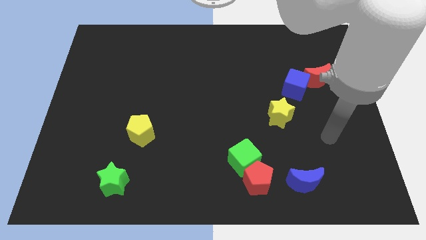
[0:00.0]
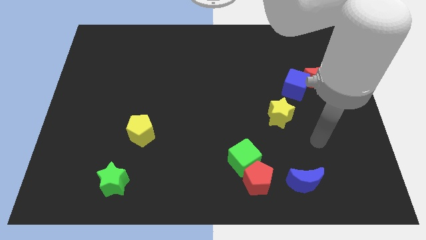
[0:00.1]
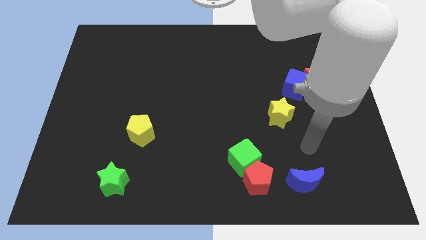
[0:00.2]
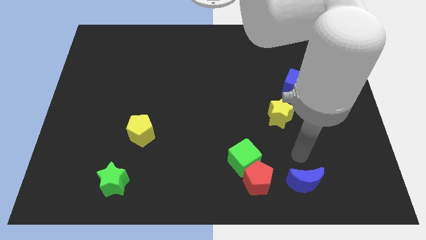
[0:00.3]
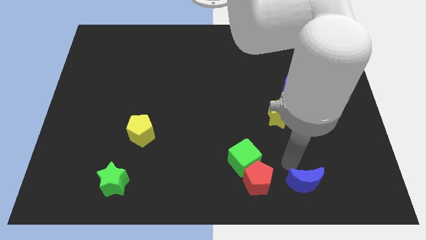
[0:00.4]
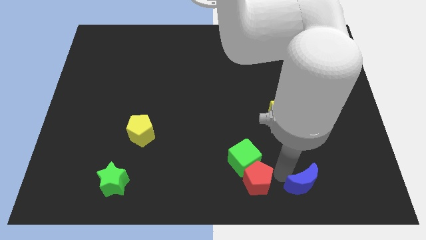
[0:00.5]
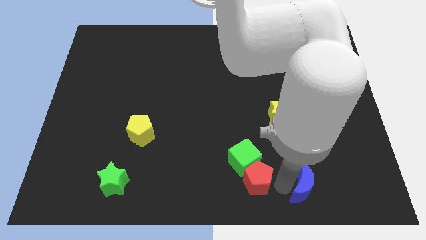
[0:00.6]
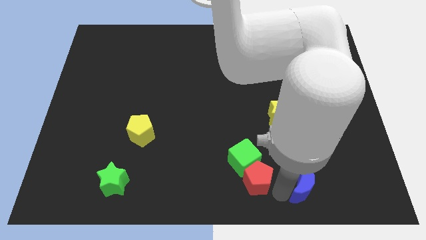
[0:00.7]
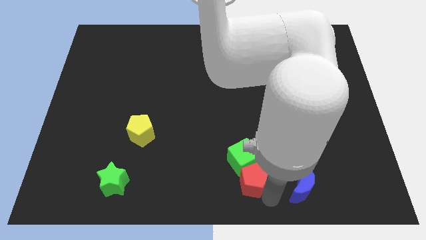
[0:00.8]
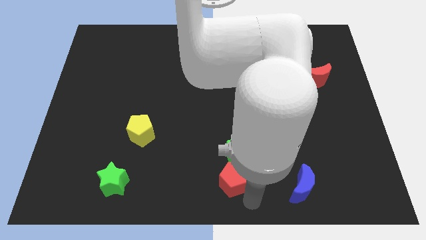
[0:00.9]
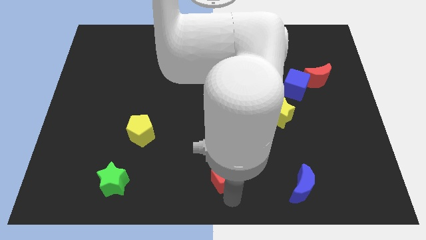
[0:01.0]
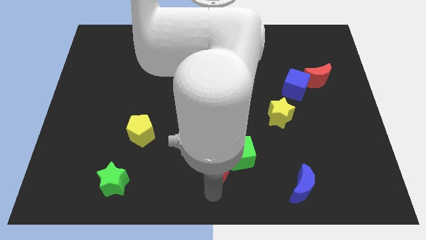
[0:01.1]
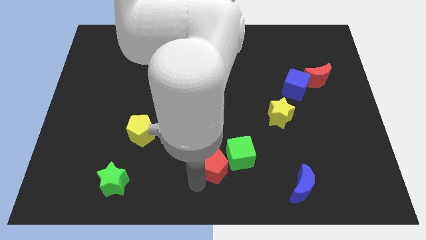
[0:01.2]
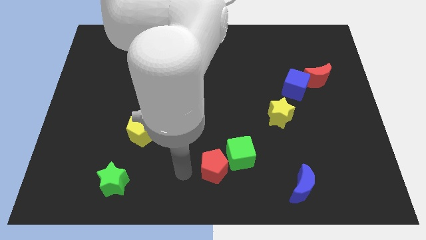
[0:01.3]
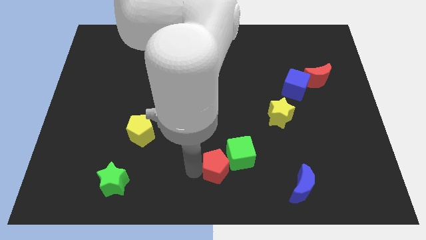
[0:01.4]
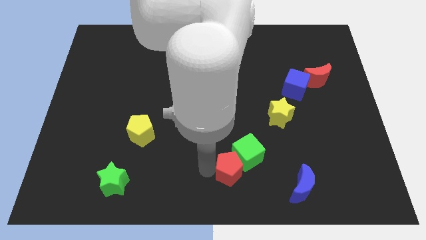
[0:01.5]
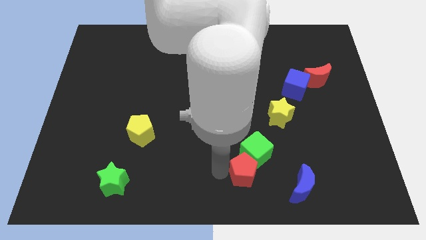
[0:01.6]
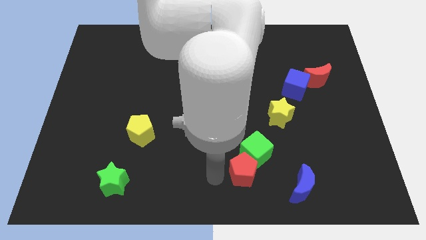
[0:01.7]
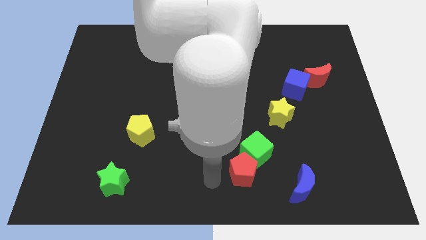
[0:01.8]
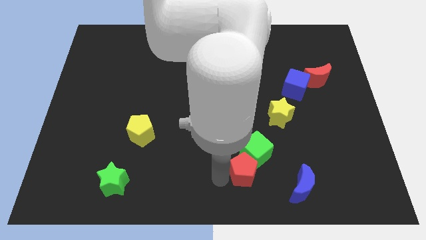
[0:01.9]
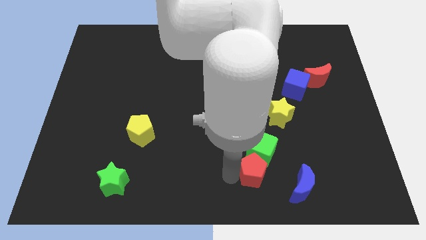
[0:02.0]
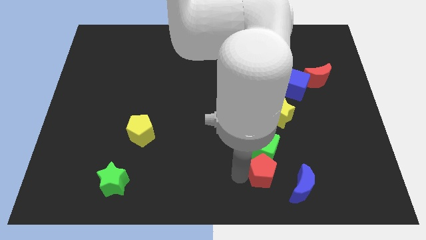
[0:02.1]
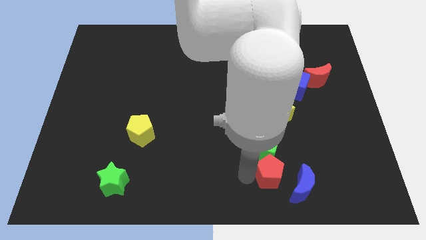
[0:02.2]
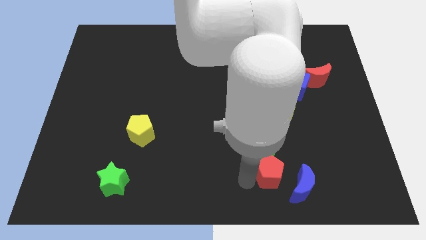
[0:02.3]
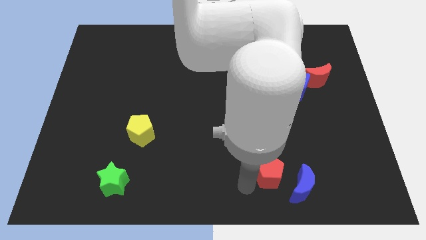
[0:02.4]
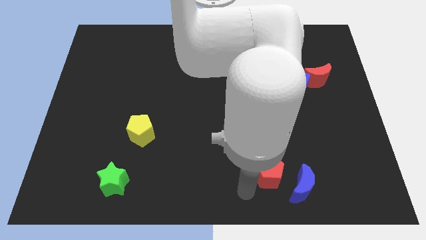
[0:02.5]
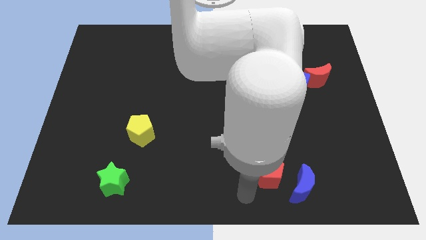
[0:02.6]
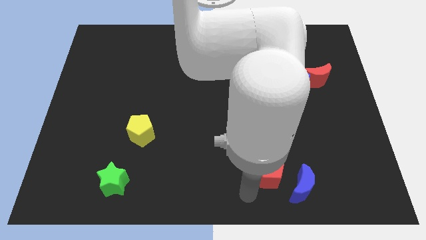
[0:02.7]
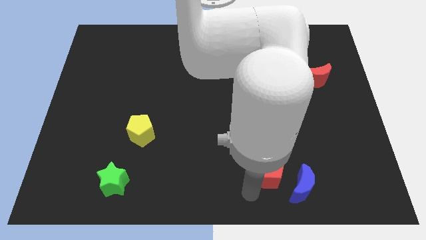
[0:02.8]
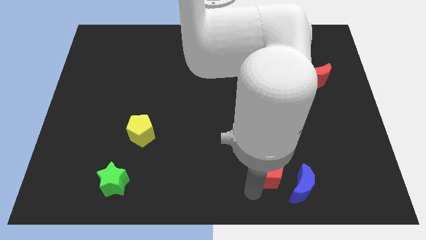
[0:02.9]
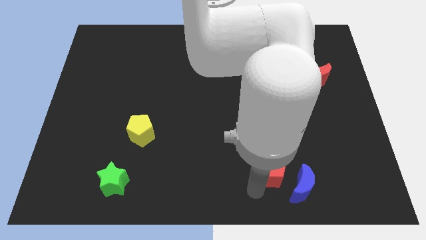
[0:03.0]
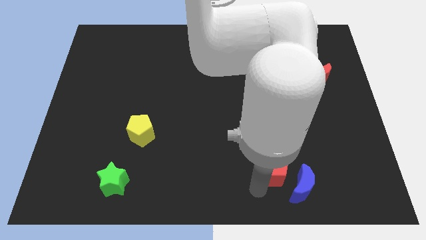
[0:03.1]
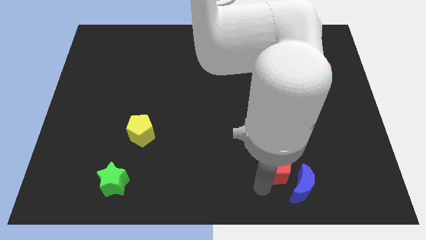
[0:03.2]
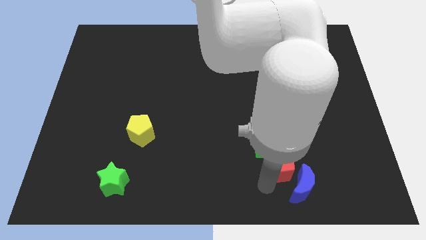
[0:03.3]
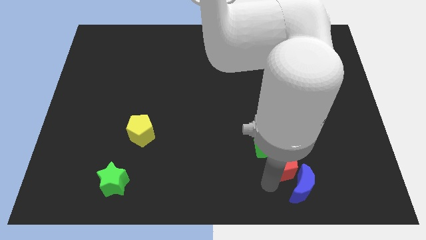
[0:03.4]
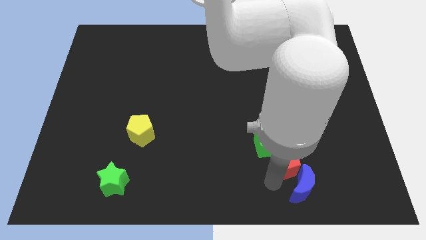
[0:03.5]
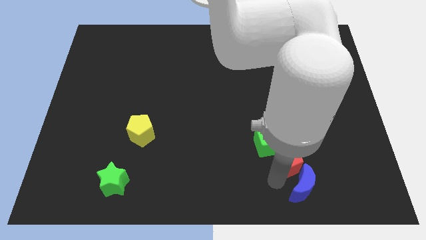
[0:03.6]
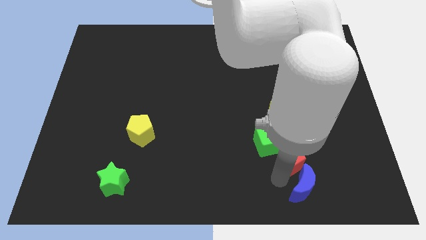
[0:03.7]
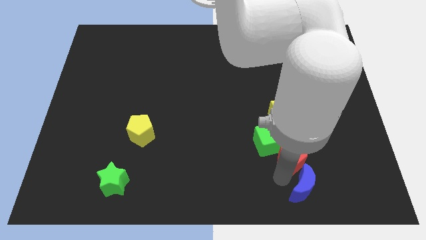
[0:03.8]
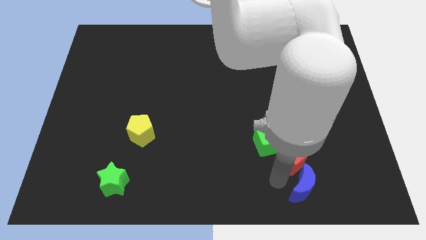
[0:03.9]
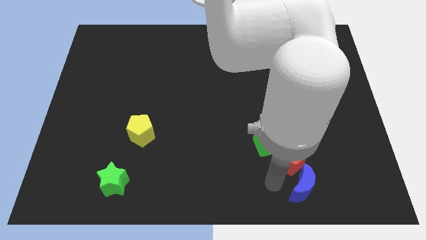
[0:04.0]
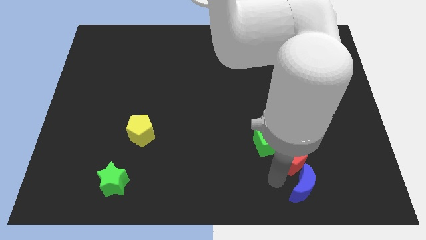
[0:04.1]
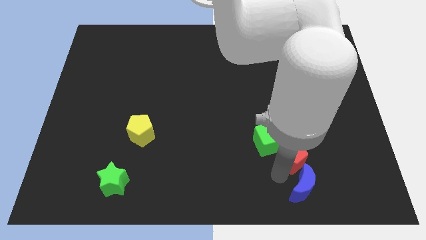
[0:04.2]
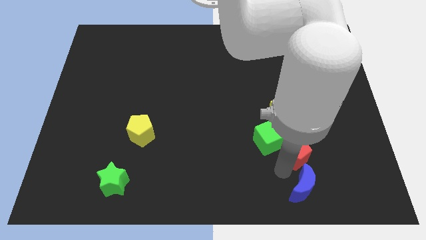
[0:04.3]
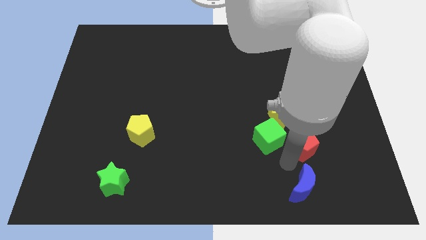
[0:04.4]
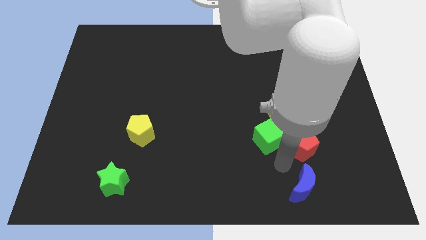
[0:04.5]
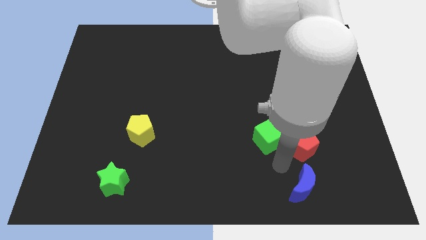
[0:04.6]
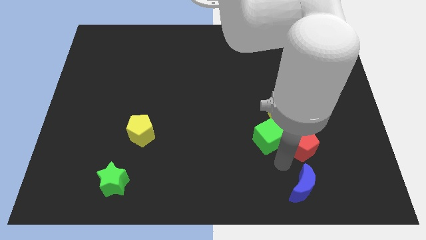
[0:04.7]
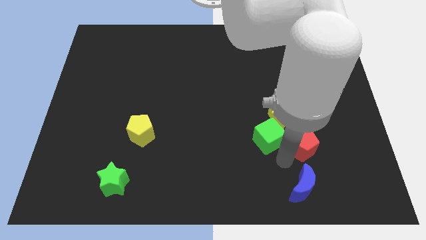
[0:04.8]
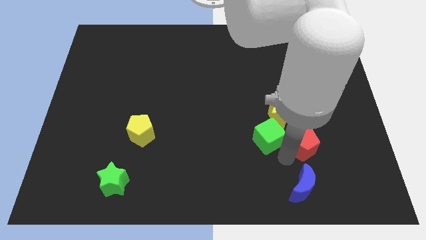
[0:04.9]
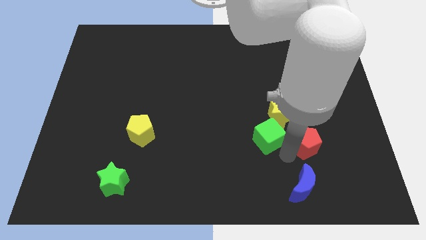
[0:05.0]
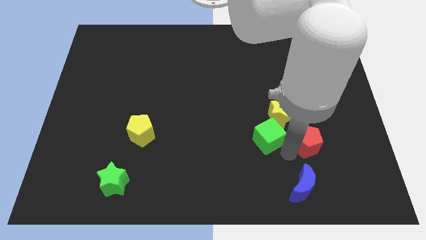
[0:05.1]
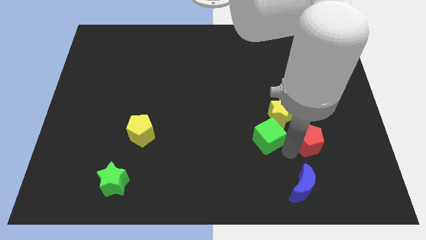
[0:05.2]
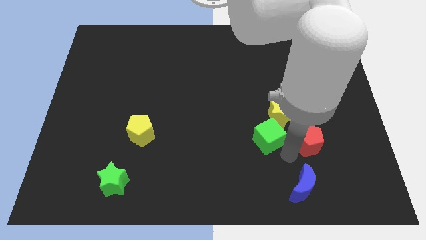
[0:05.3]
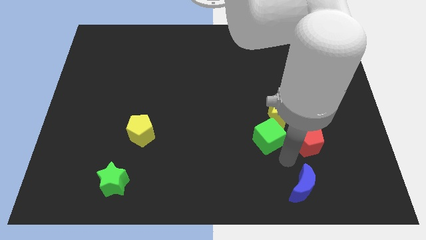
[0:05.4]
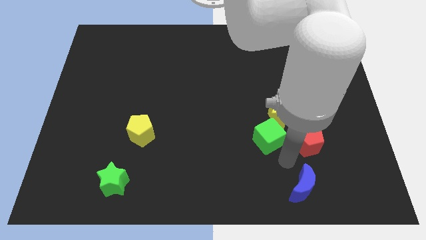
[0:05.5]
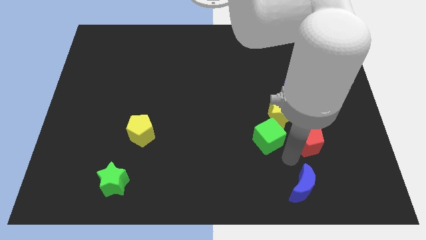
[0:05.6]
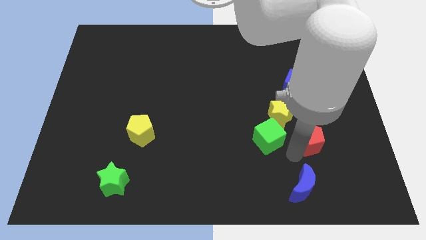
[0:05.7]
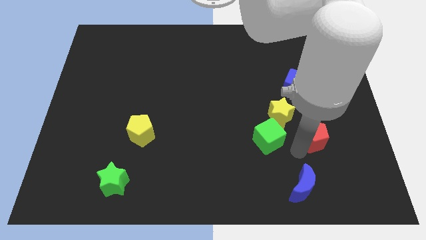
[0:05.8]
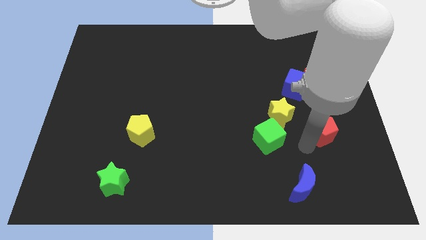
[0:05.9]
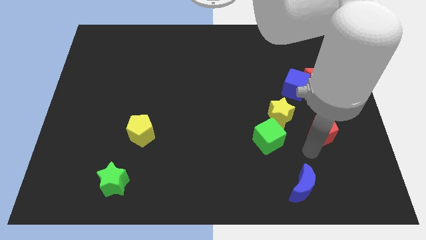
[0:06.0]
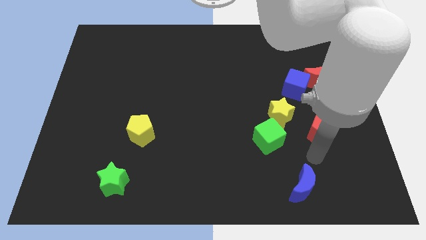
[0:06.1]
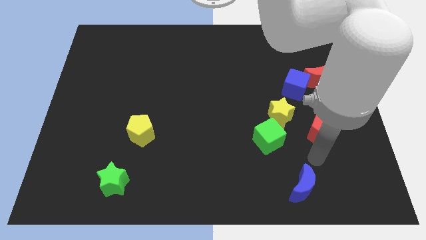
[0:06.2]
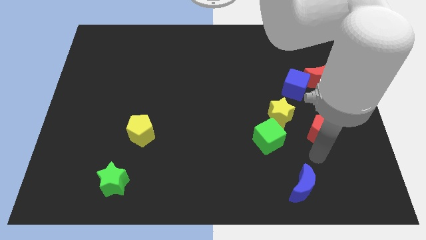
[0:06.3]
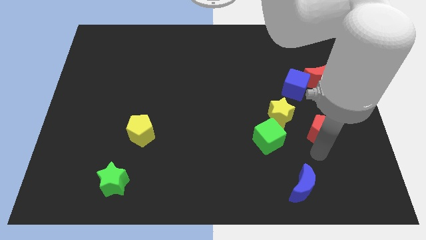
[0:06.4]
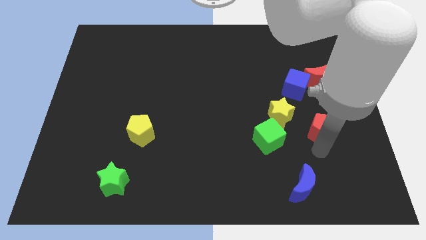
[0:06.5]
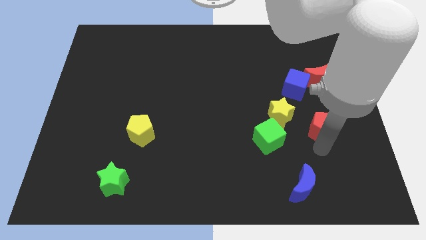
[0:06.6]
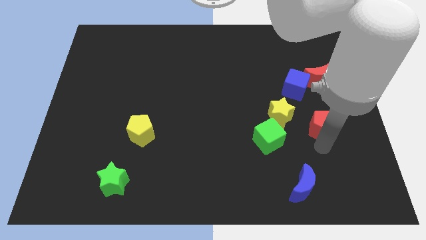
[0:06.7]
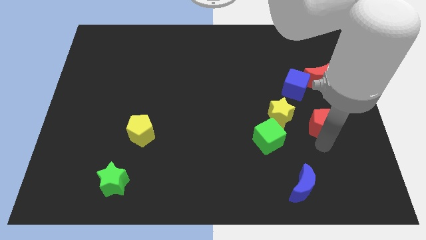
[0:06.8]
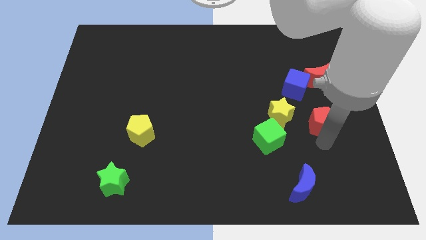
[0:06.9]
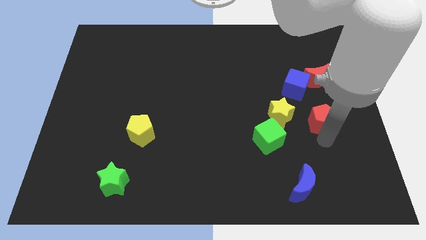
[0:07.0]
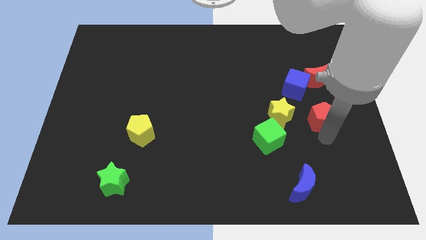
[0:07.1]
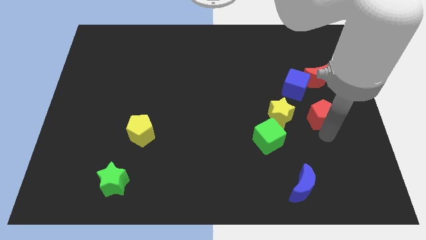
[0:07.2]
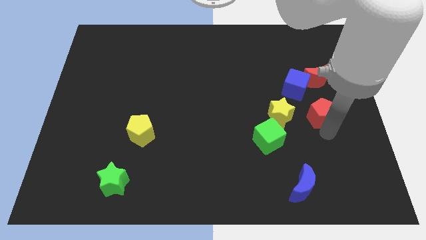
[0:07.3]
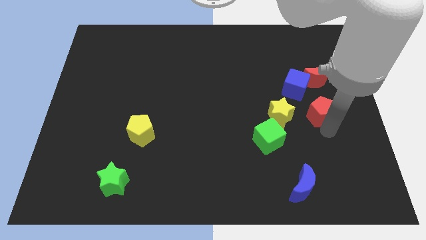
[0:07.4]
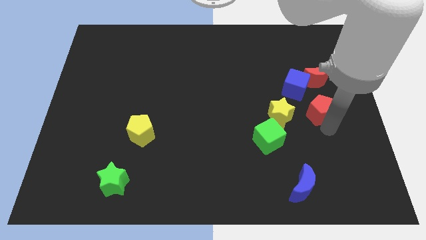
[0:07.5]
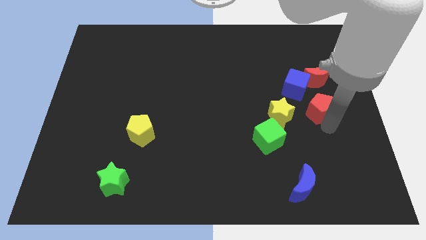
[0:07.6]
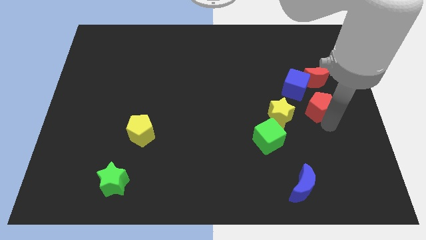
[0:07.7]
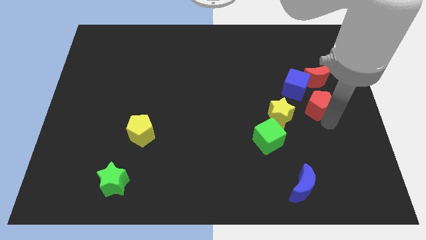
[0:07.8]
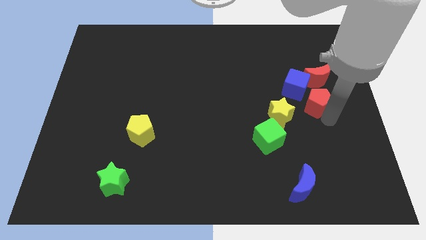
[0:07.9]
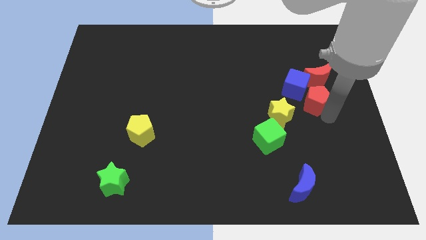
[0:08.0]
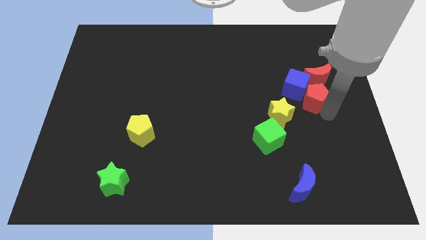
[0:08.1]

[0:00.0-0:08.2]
push the red pentagon to the blue cube
